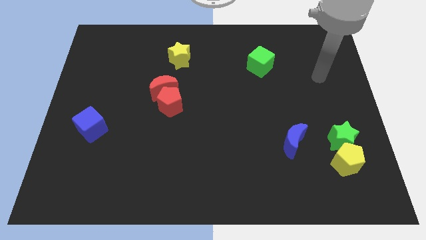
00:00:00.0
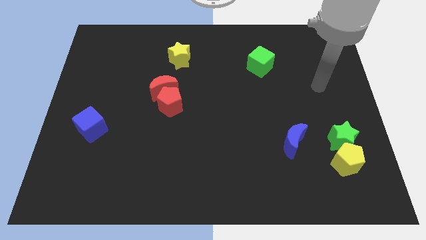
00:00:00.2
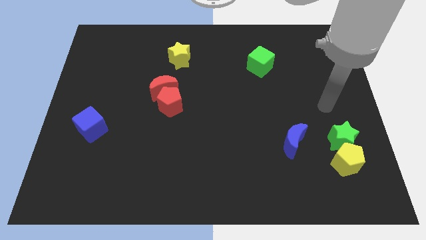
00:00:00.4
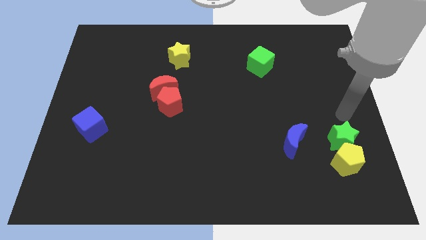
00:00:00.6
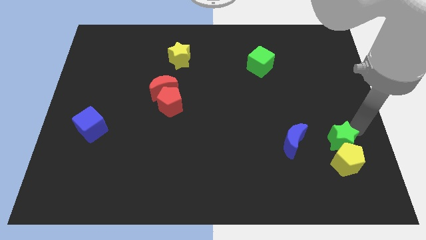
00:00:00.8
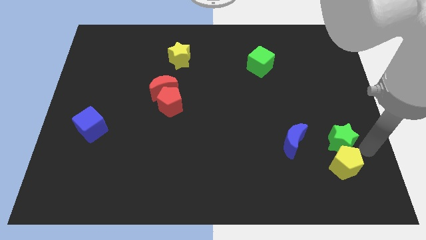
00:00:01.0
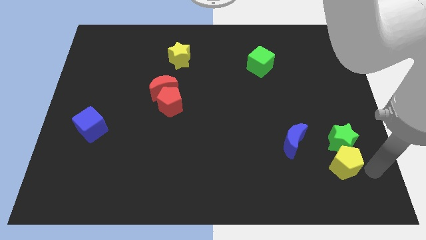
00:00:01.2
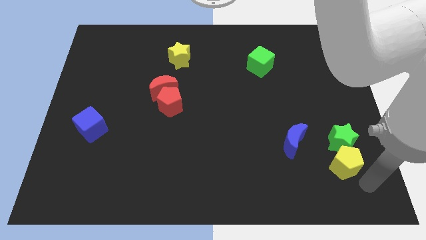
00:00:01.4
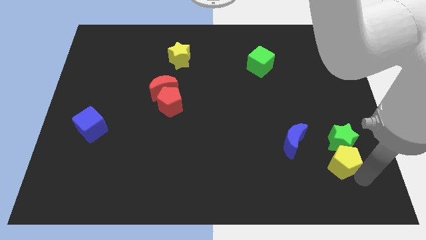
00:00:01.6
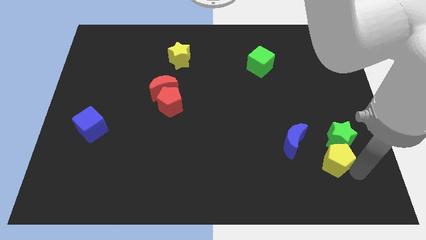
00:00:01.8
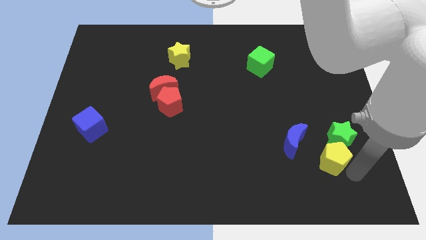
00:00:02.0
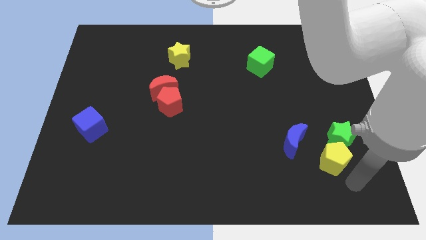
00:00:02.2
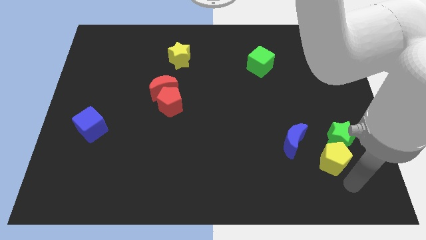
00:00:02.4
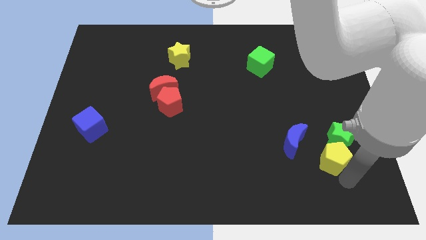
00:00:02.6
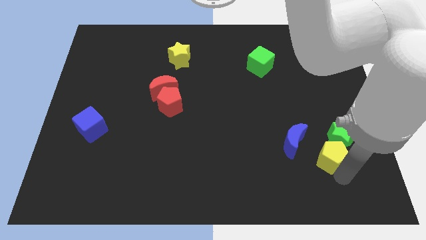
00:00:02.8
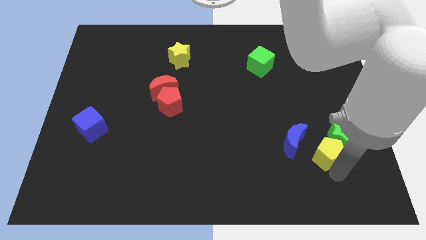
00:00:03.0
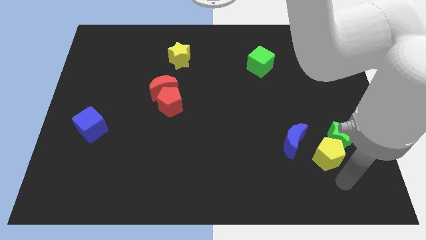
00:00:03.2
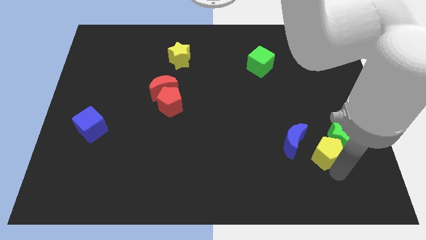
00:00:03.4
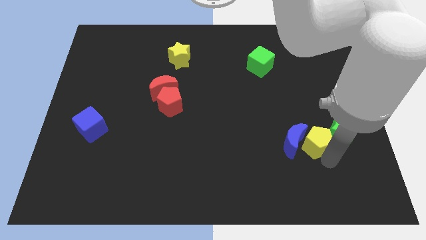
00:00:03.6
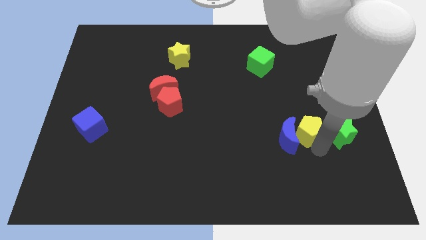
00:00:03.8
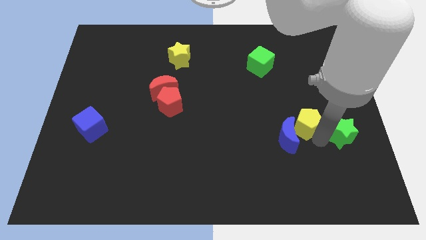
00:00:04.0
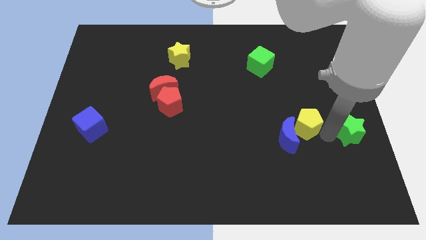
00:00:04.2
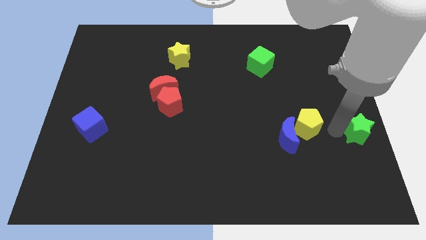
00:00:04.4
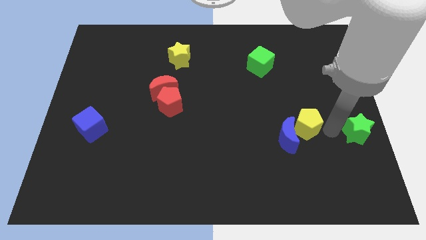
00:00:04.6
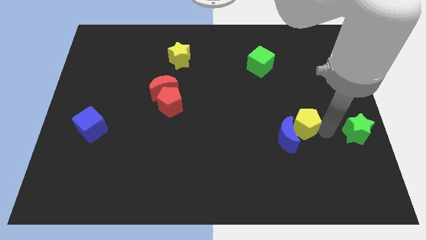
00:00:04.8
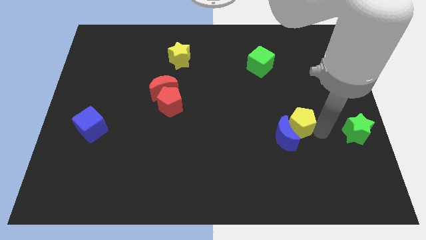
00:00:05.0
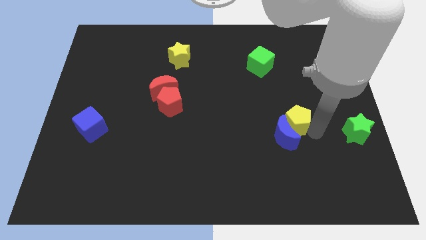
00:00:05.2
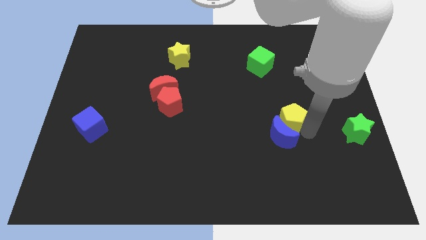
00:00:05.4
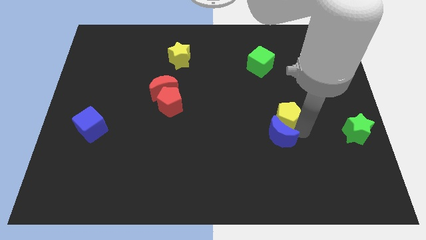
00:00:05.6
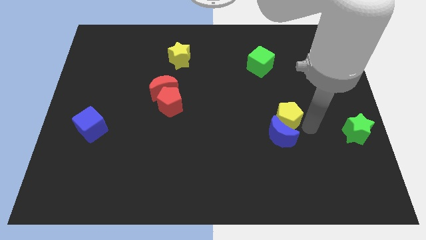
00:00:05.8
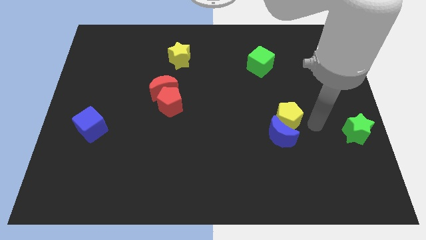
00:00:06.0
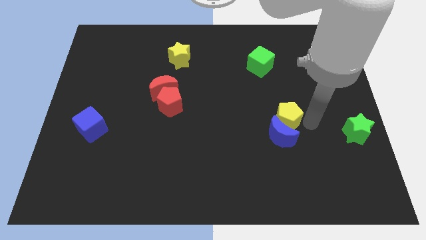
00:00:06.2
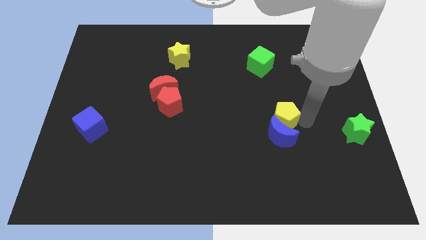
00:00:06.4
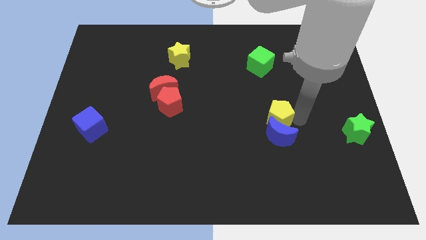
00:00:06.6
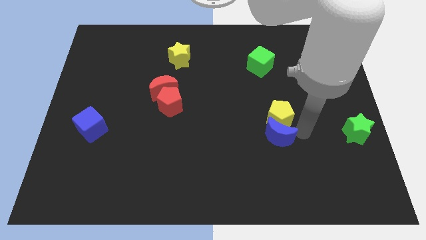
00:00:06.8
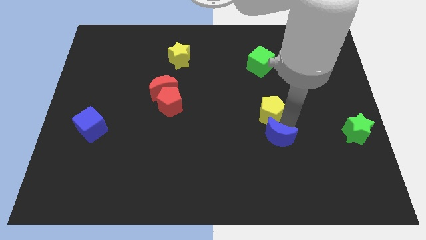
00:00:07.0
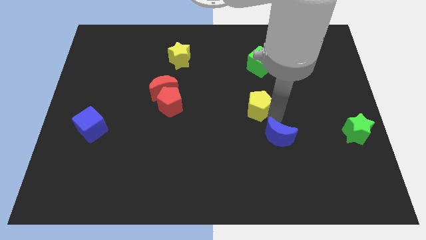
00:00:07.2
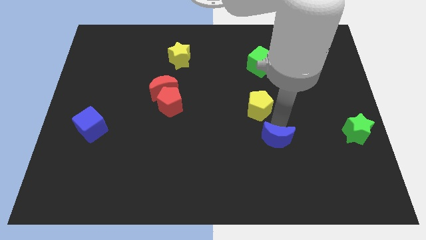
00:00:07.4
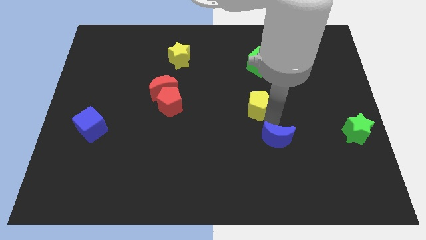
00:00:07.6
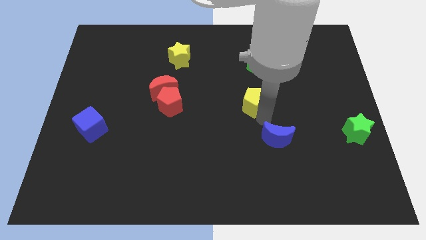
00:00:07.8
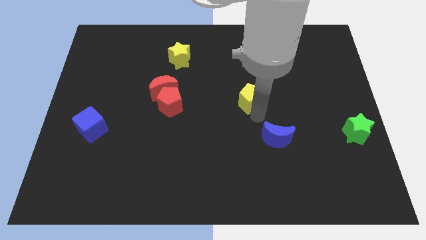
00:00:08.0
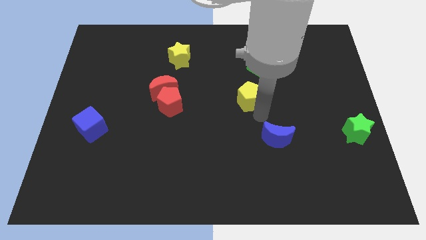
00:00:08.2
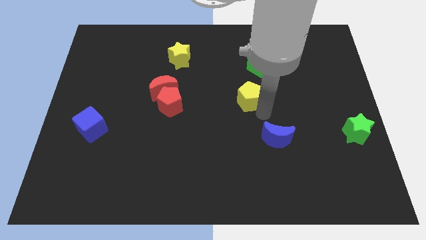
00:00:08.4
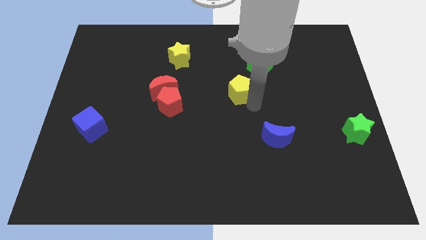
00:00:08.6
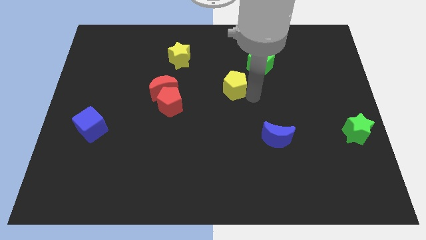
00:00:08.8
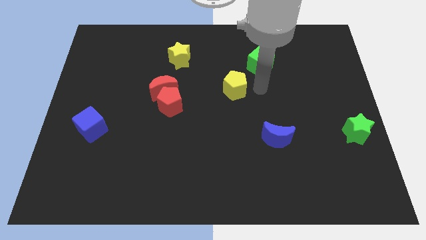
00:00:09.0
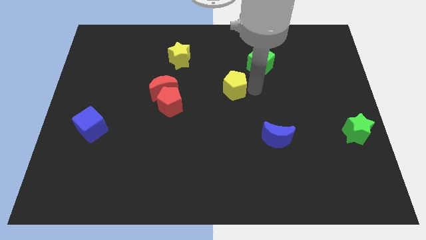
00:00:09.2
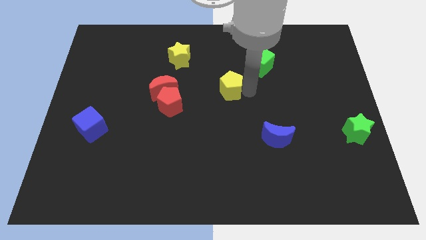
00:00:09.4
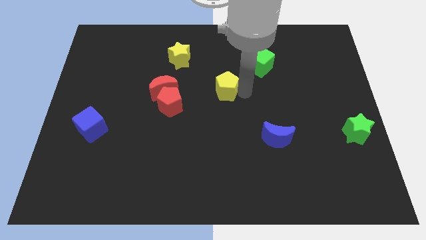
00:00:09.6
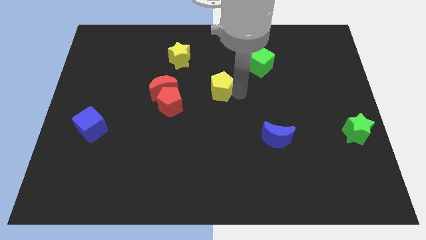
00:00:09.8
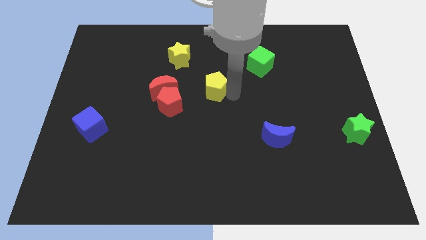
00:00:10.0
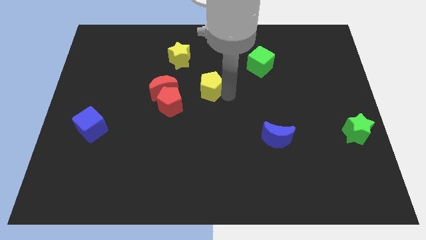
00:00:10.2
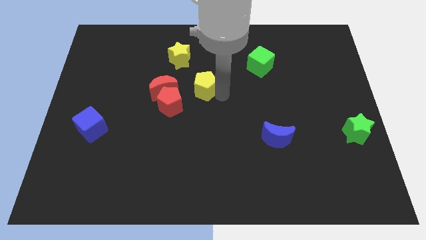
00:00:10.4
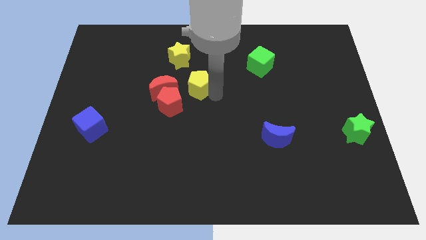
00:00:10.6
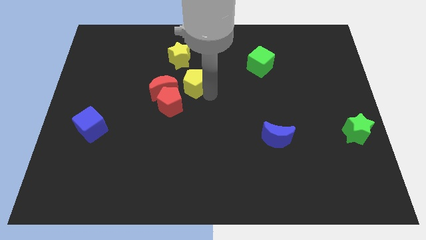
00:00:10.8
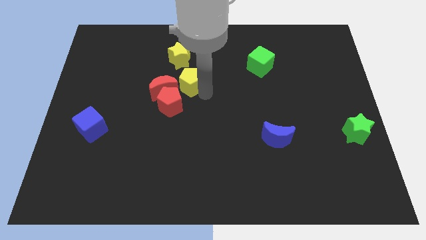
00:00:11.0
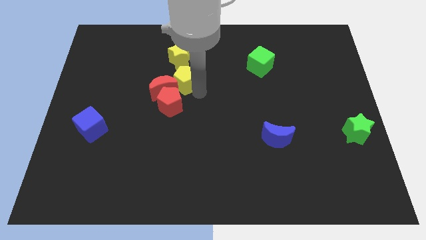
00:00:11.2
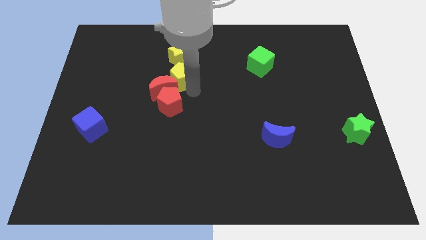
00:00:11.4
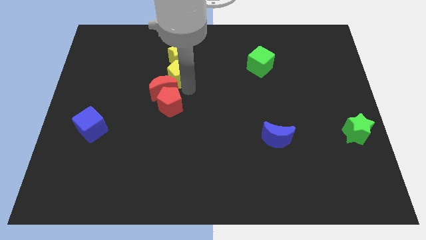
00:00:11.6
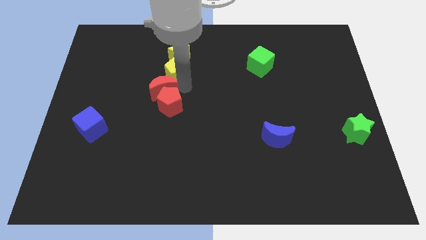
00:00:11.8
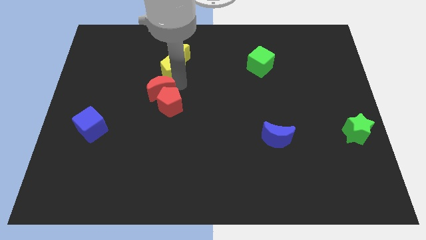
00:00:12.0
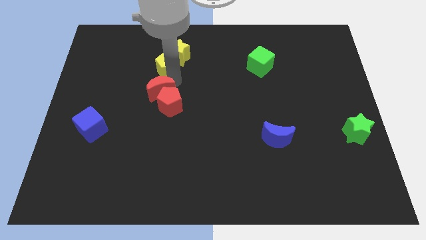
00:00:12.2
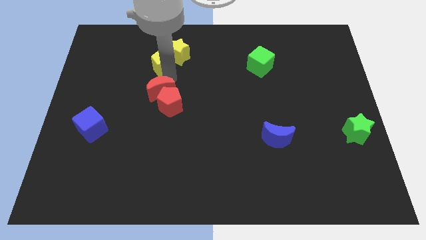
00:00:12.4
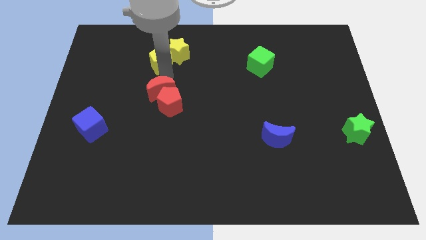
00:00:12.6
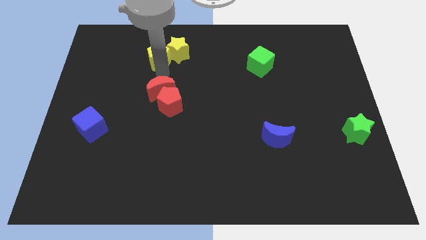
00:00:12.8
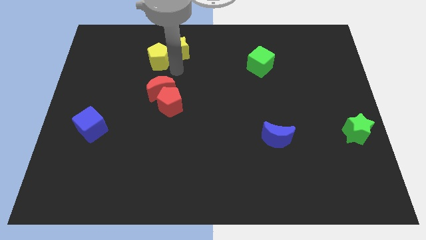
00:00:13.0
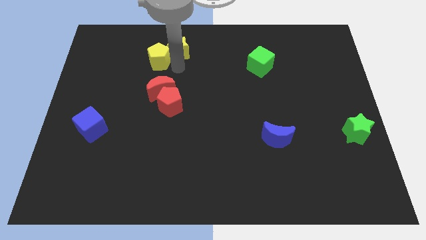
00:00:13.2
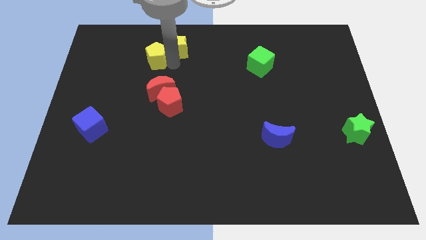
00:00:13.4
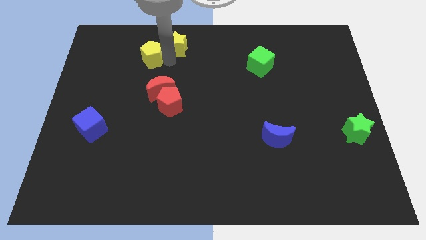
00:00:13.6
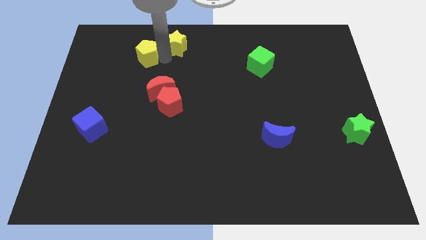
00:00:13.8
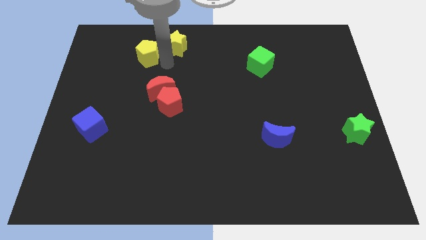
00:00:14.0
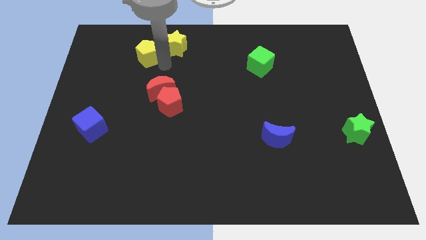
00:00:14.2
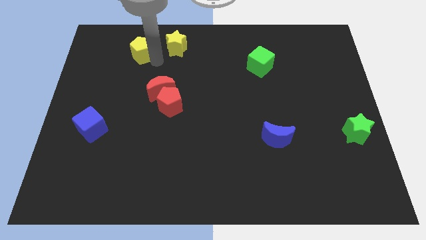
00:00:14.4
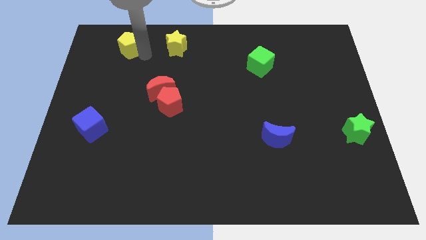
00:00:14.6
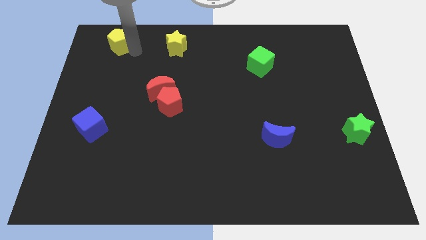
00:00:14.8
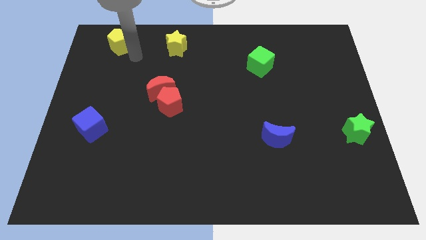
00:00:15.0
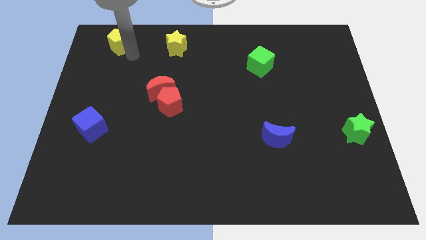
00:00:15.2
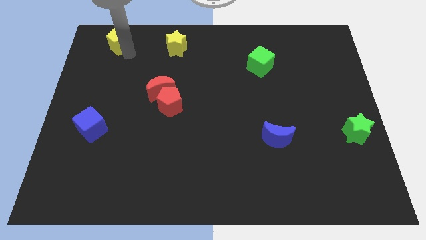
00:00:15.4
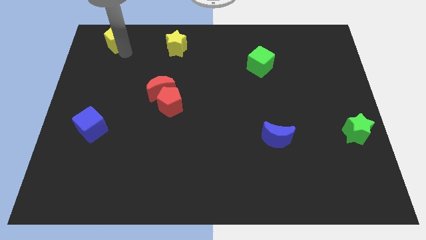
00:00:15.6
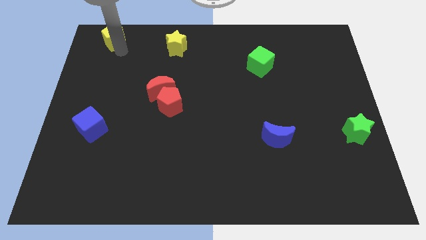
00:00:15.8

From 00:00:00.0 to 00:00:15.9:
push the yellow pentagon to the upper left corner
